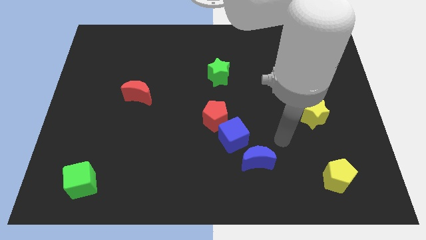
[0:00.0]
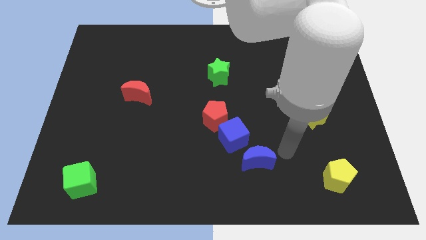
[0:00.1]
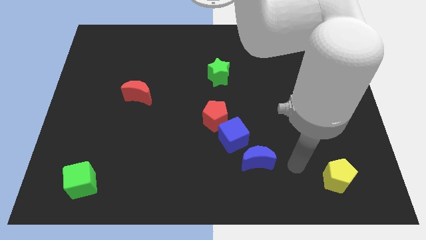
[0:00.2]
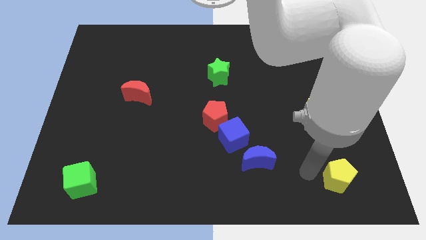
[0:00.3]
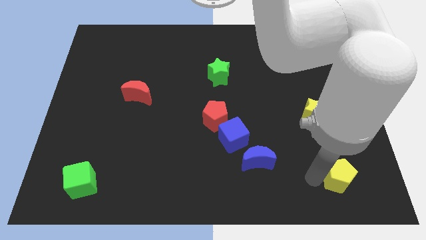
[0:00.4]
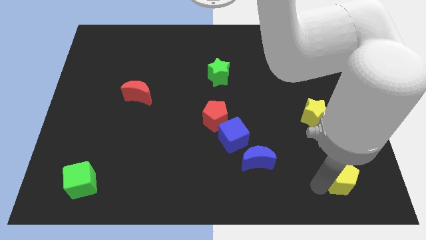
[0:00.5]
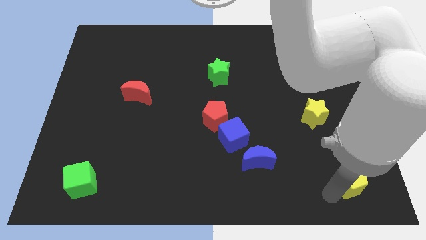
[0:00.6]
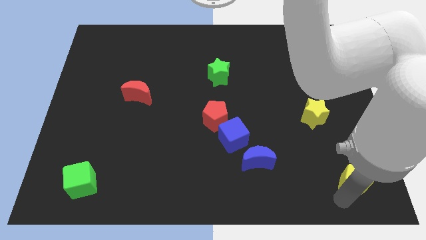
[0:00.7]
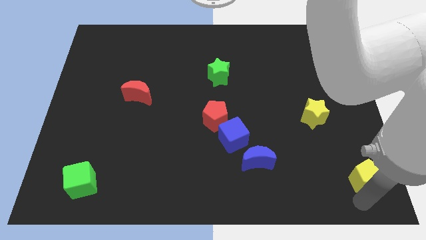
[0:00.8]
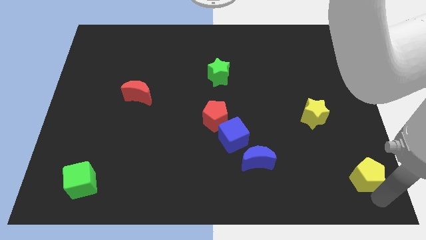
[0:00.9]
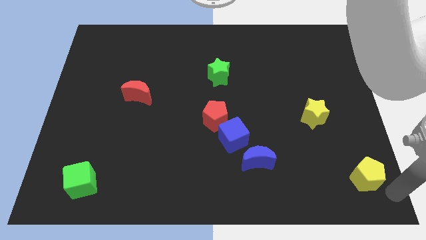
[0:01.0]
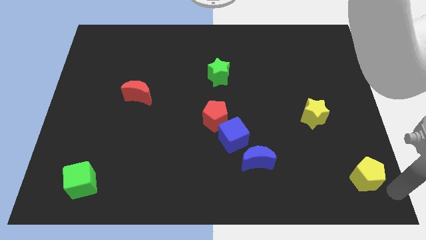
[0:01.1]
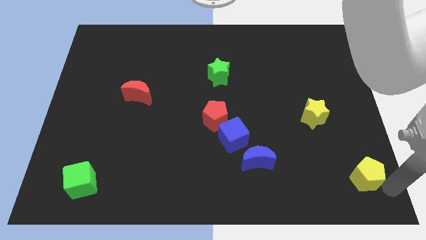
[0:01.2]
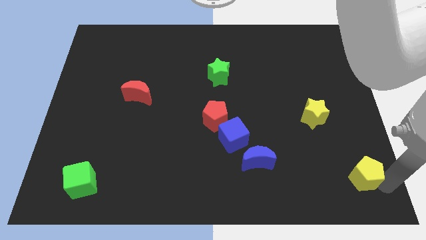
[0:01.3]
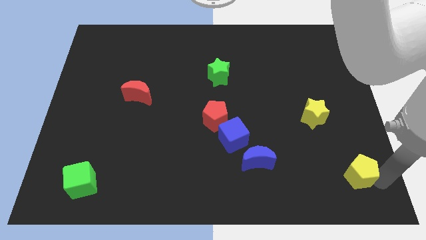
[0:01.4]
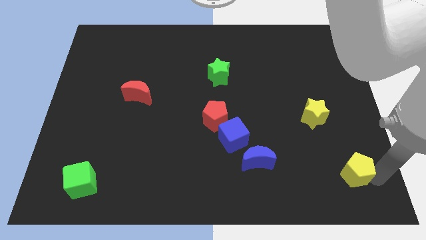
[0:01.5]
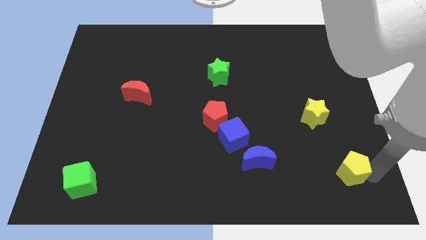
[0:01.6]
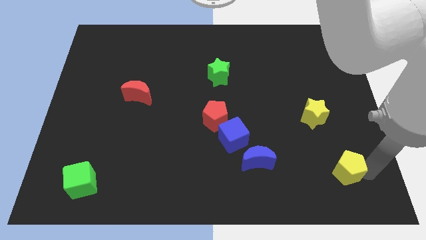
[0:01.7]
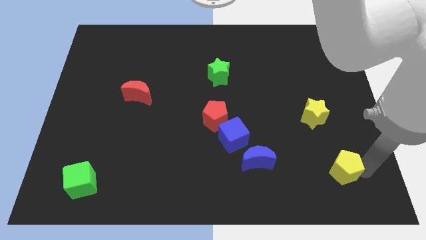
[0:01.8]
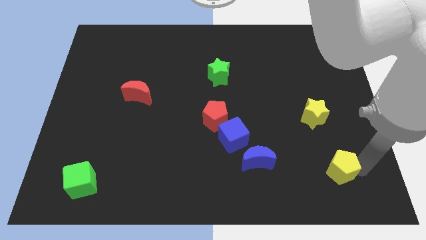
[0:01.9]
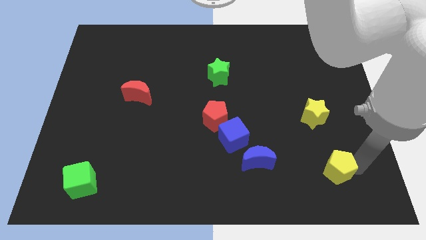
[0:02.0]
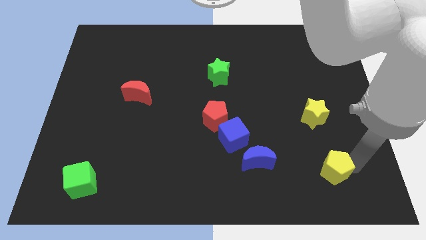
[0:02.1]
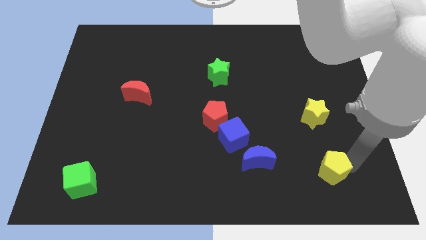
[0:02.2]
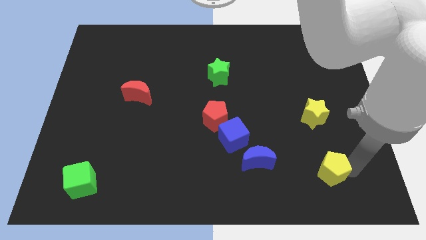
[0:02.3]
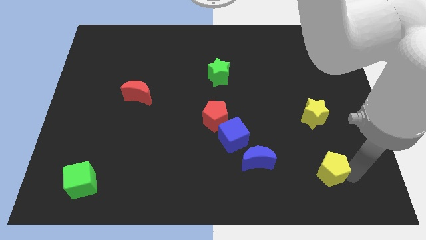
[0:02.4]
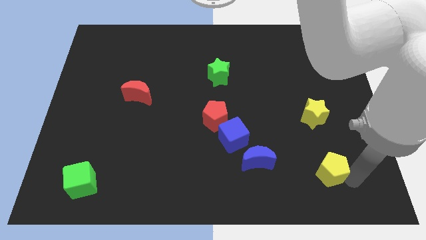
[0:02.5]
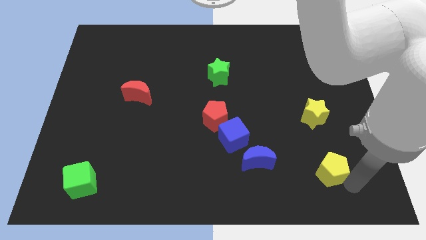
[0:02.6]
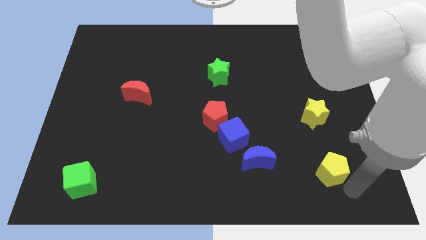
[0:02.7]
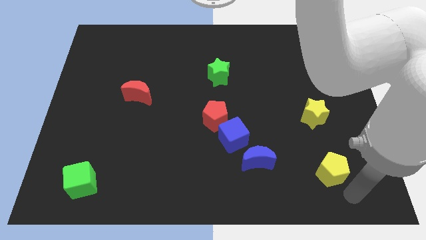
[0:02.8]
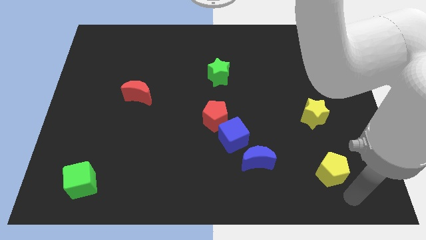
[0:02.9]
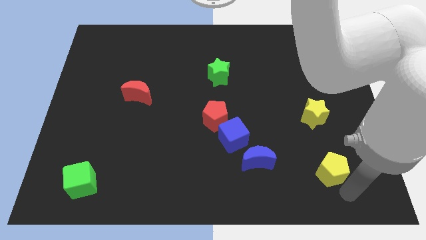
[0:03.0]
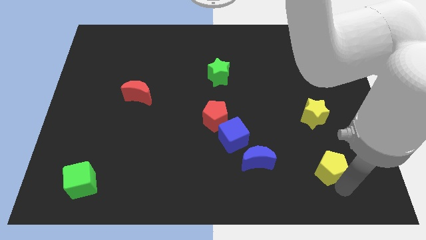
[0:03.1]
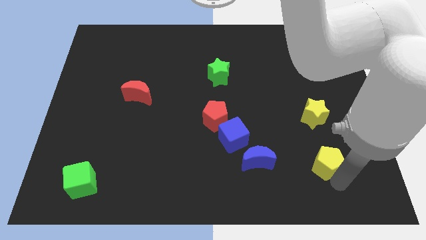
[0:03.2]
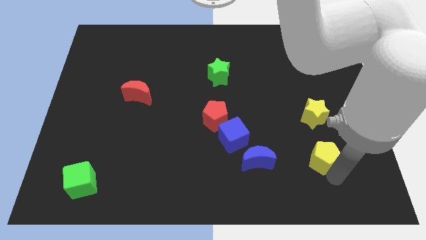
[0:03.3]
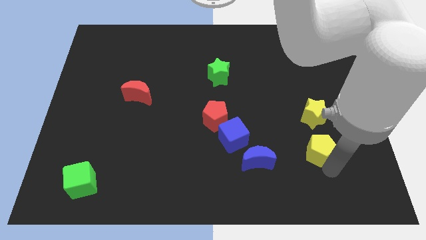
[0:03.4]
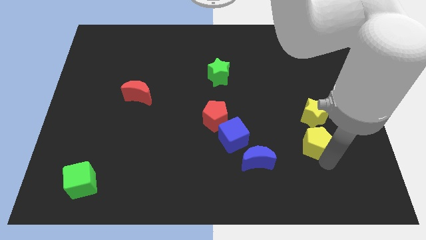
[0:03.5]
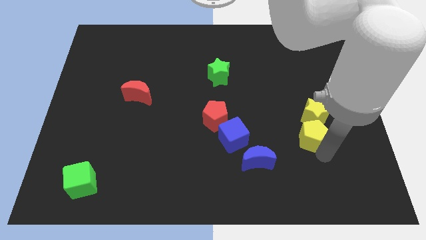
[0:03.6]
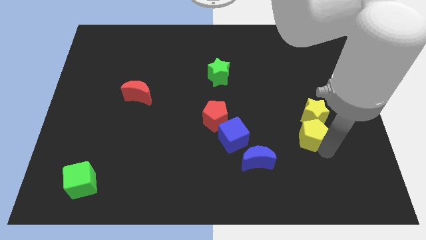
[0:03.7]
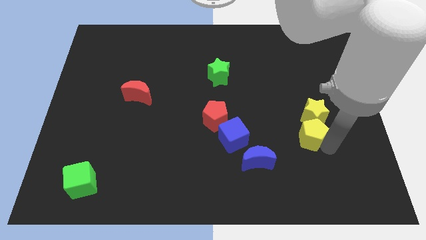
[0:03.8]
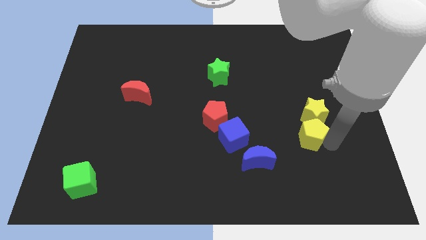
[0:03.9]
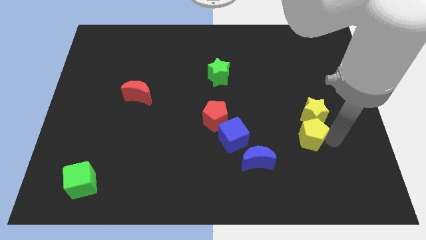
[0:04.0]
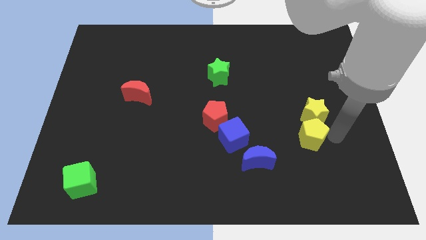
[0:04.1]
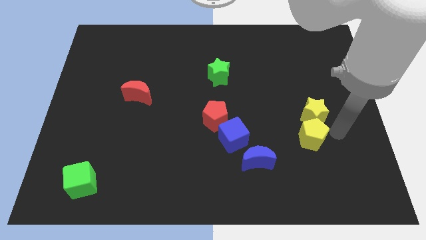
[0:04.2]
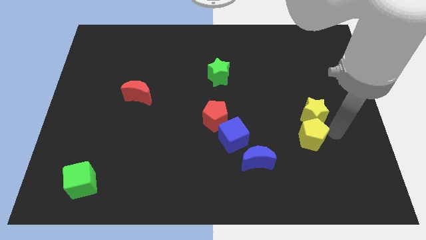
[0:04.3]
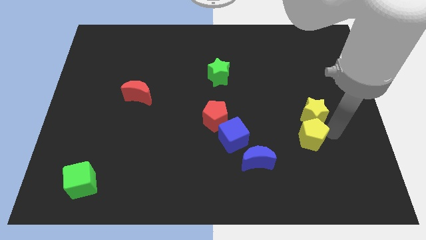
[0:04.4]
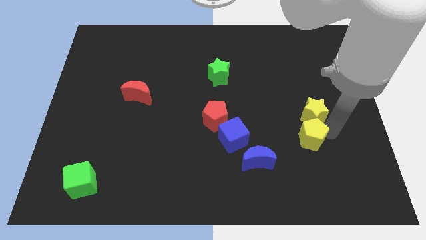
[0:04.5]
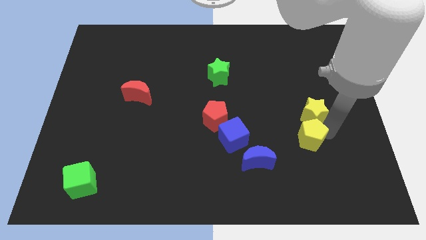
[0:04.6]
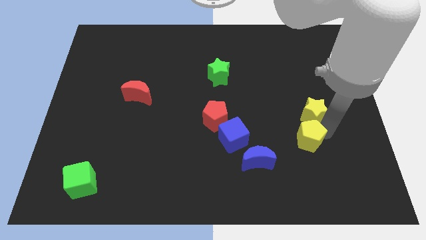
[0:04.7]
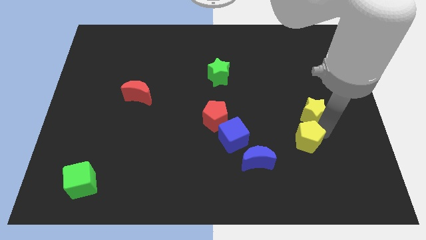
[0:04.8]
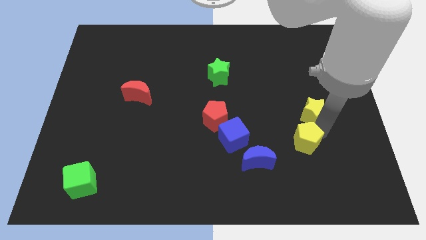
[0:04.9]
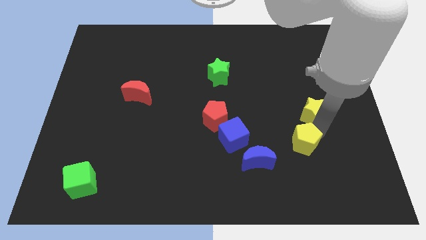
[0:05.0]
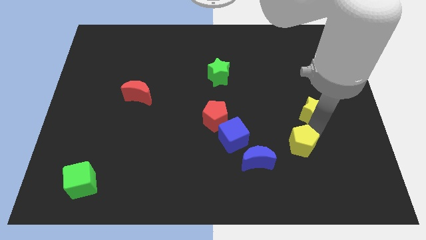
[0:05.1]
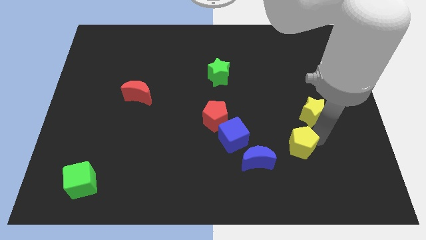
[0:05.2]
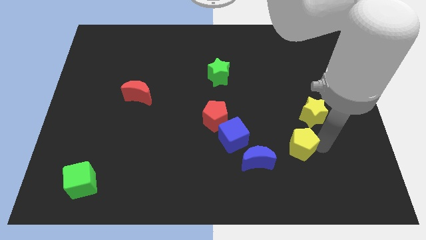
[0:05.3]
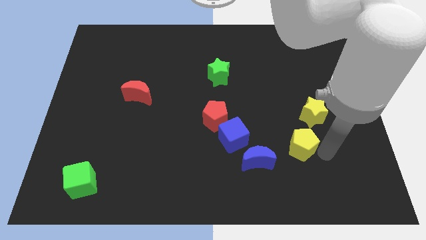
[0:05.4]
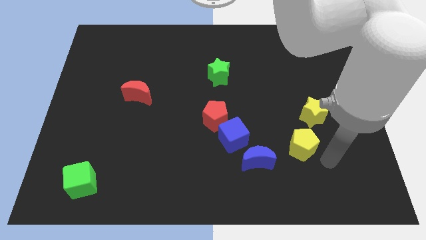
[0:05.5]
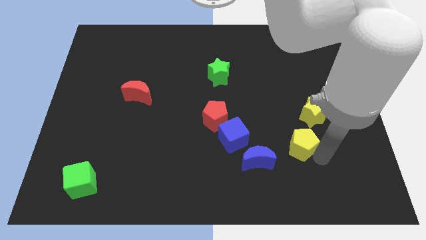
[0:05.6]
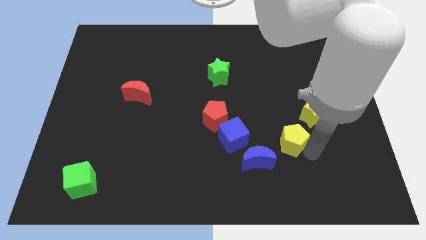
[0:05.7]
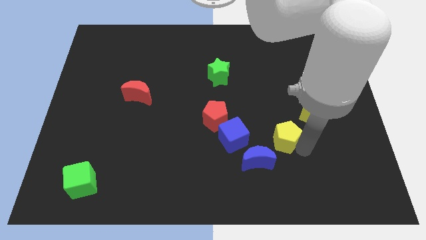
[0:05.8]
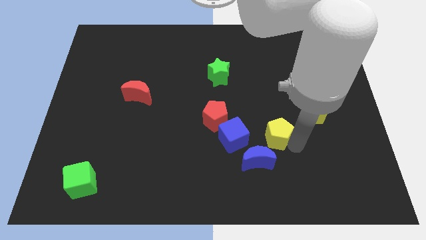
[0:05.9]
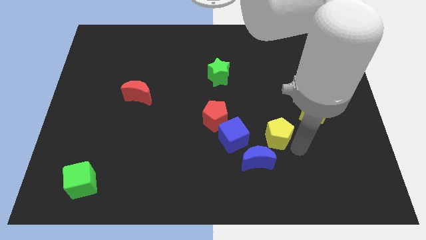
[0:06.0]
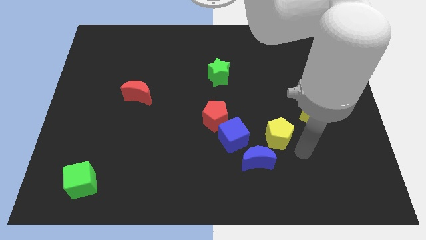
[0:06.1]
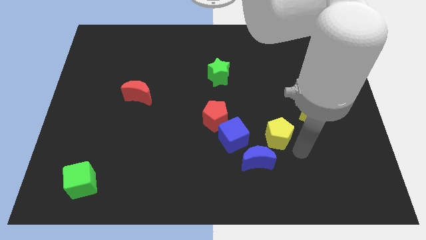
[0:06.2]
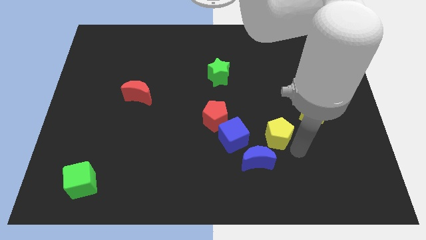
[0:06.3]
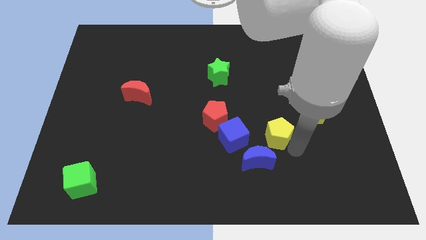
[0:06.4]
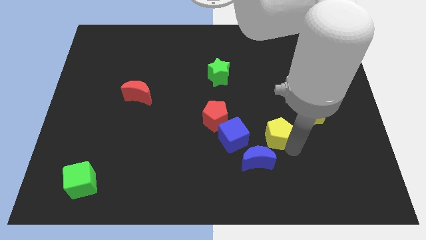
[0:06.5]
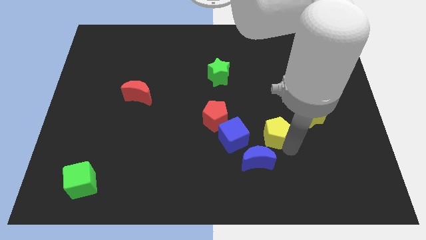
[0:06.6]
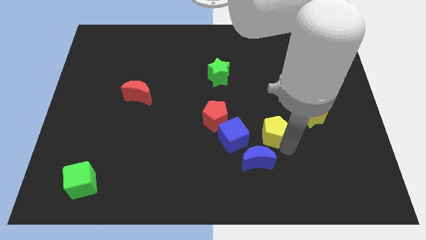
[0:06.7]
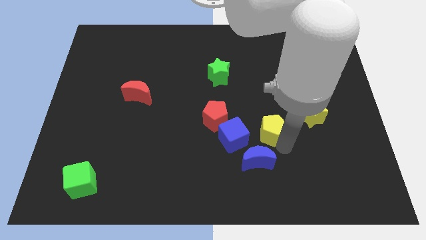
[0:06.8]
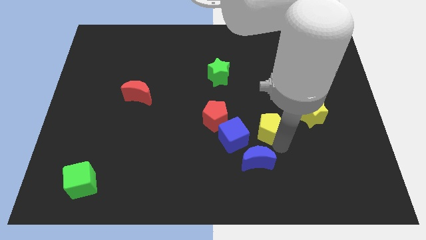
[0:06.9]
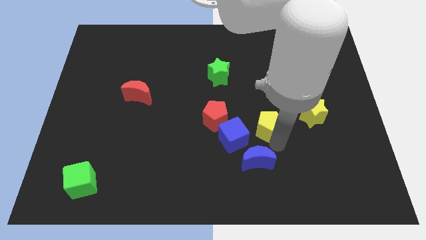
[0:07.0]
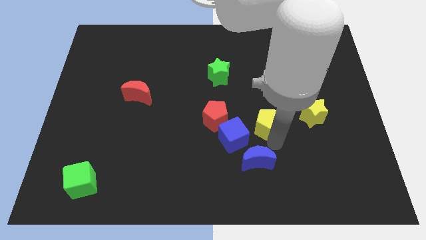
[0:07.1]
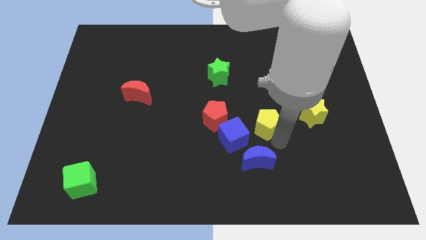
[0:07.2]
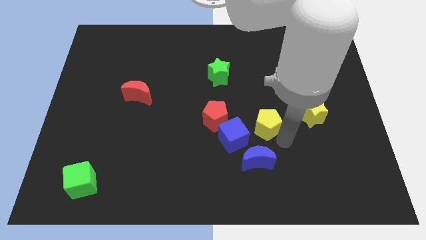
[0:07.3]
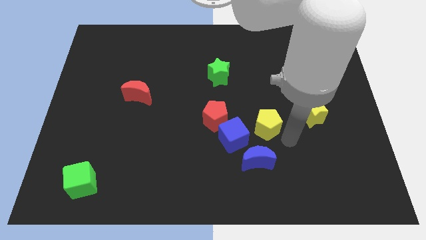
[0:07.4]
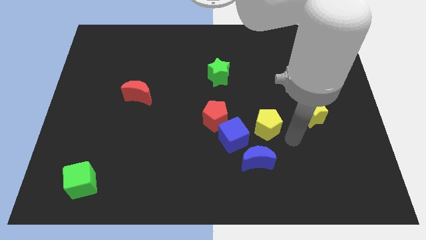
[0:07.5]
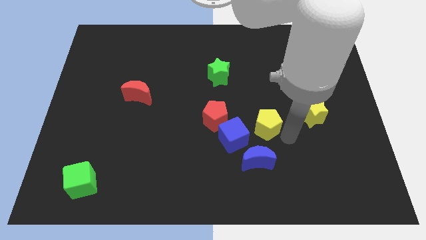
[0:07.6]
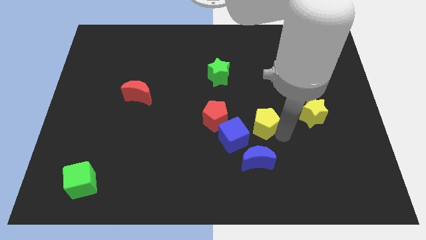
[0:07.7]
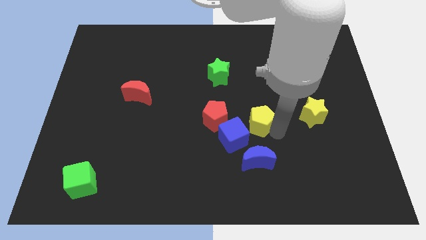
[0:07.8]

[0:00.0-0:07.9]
move the yellow pentagon to the center
